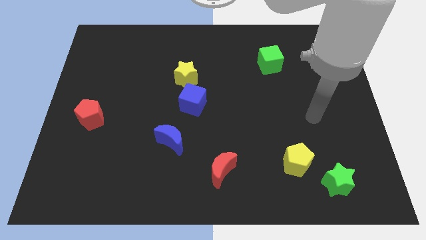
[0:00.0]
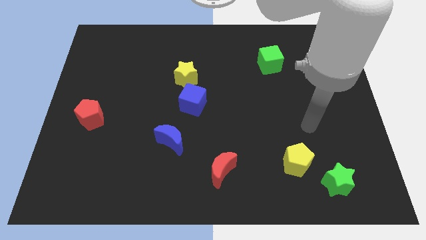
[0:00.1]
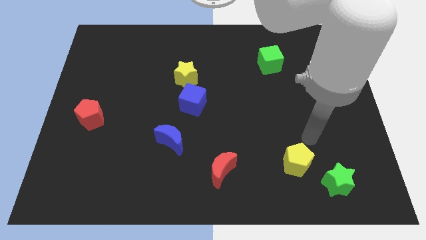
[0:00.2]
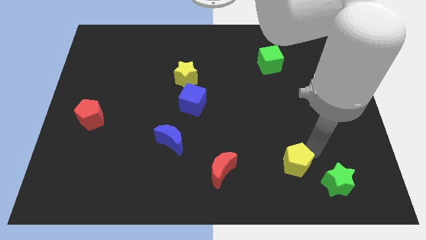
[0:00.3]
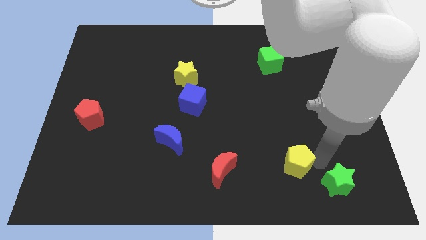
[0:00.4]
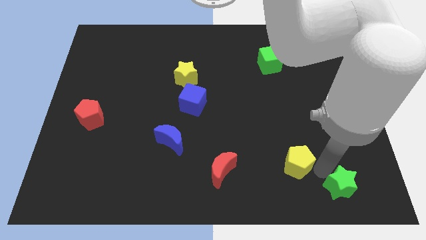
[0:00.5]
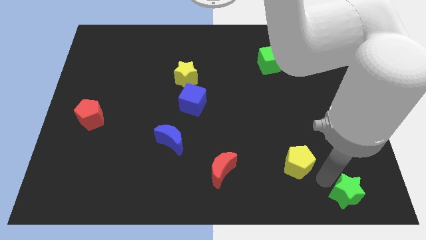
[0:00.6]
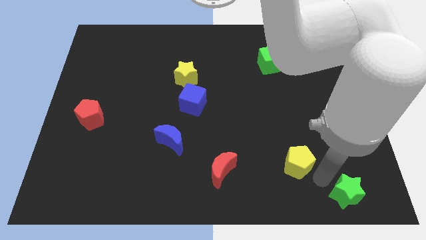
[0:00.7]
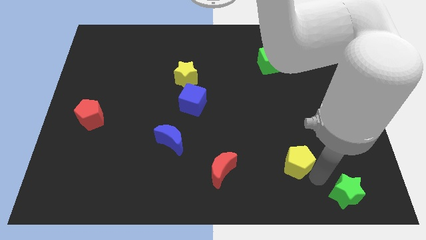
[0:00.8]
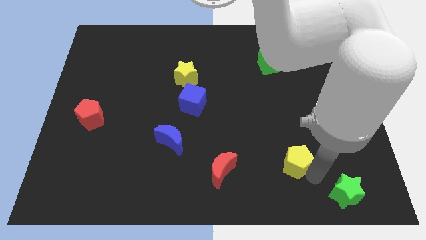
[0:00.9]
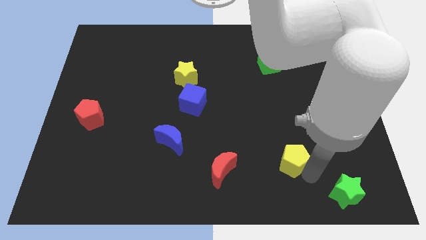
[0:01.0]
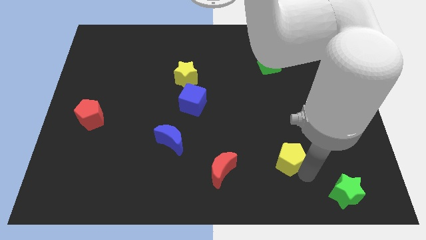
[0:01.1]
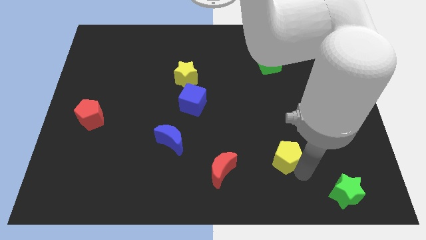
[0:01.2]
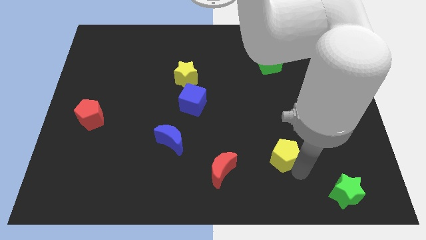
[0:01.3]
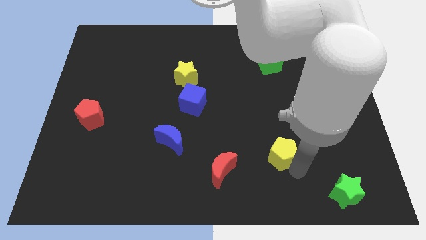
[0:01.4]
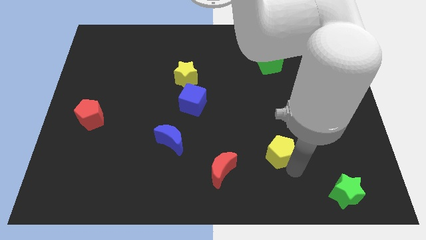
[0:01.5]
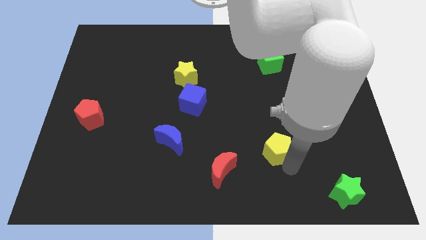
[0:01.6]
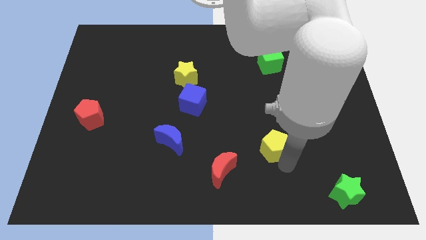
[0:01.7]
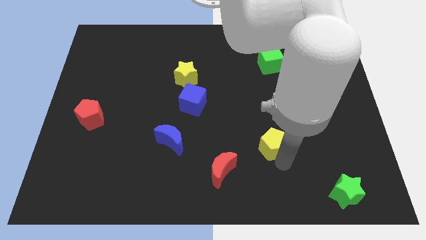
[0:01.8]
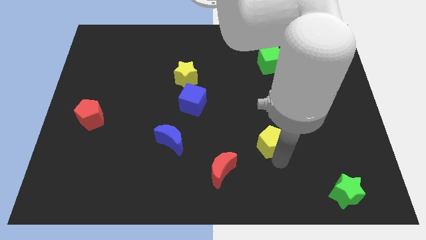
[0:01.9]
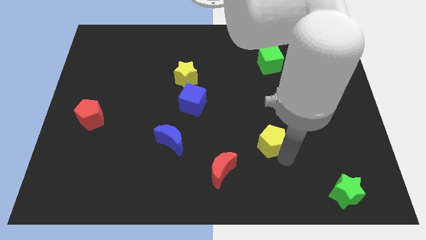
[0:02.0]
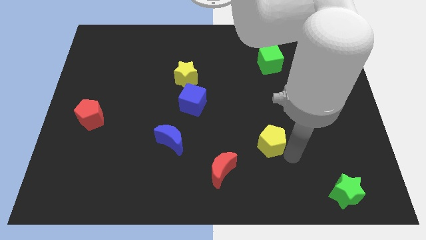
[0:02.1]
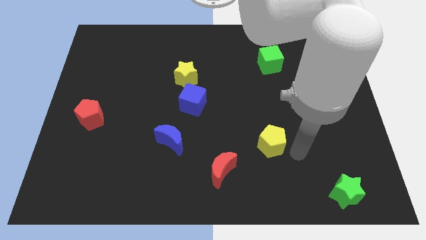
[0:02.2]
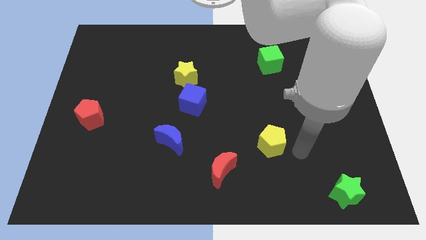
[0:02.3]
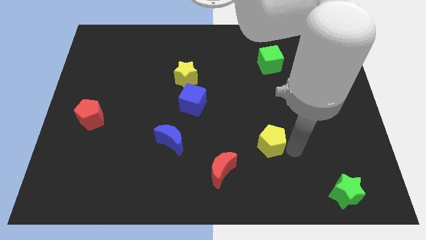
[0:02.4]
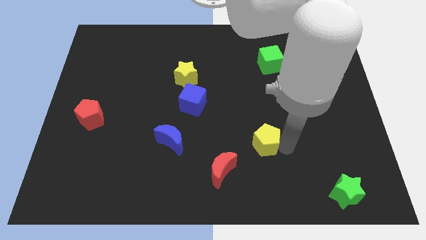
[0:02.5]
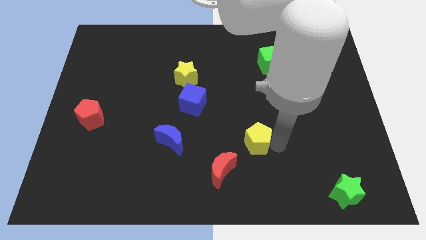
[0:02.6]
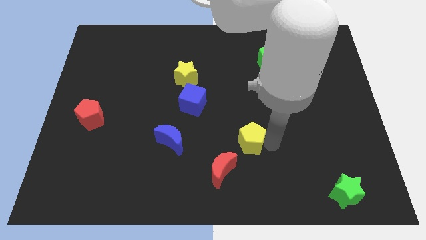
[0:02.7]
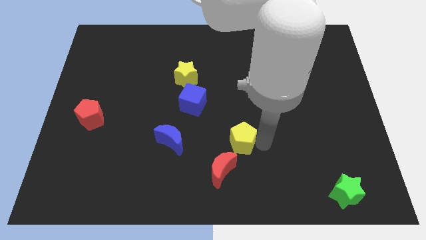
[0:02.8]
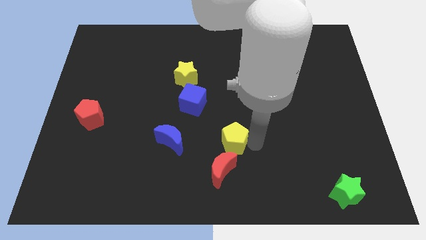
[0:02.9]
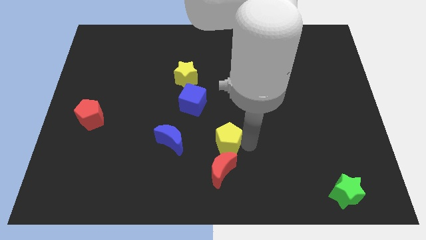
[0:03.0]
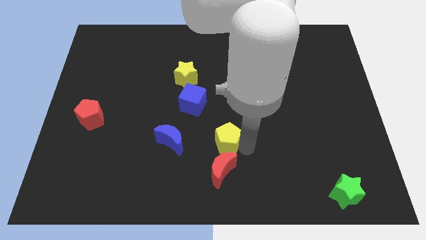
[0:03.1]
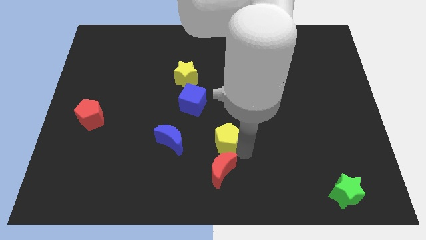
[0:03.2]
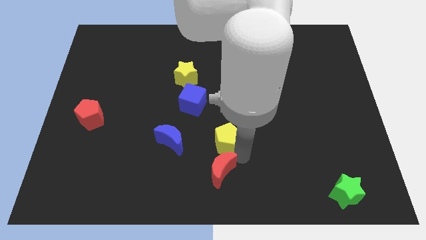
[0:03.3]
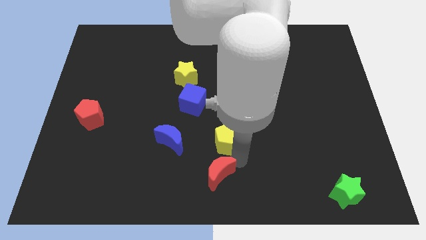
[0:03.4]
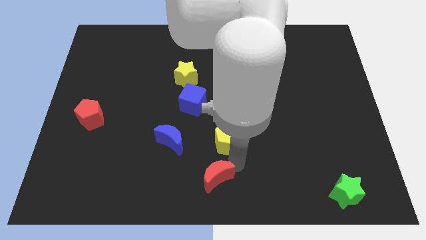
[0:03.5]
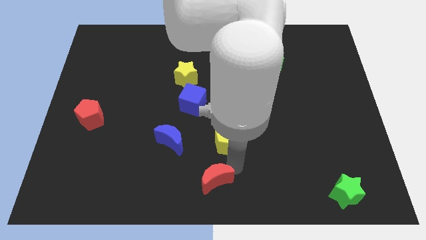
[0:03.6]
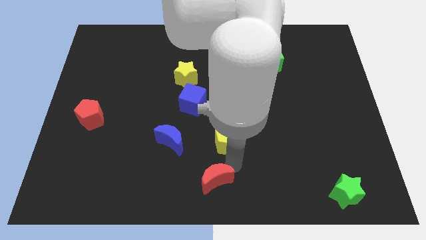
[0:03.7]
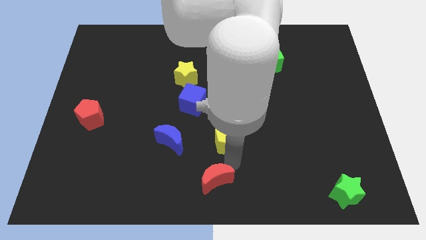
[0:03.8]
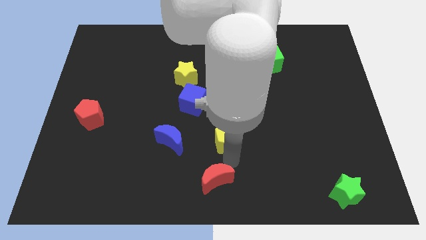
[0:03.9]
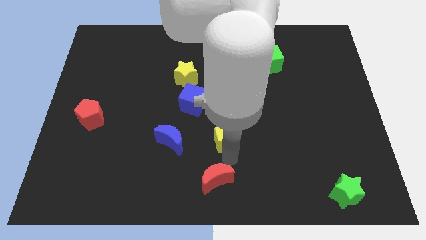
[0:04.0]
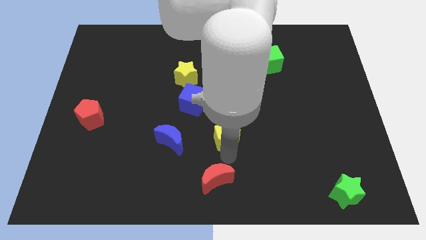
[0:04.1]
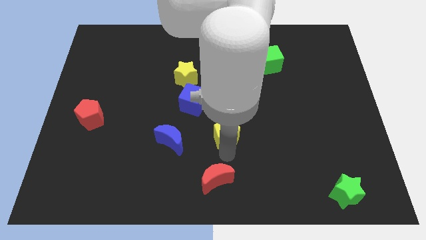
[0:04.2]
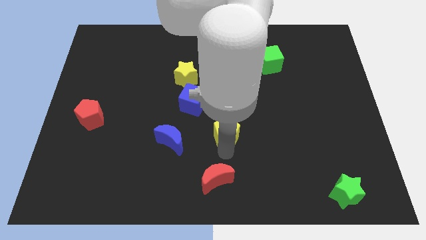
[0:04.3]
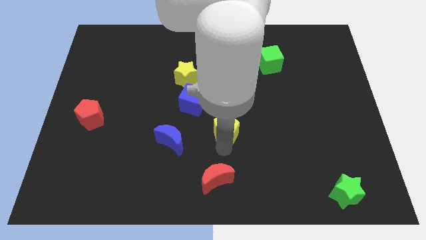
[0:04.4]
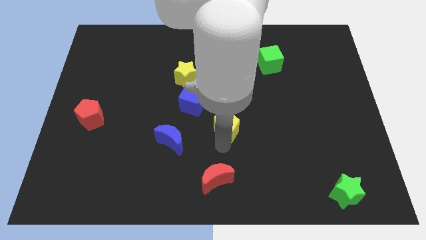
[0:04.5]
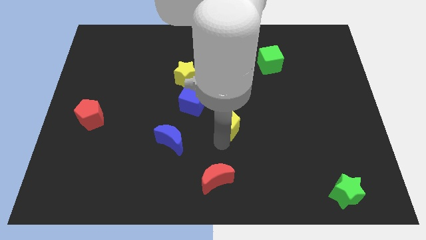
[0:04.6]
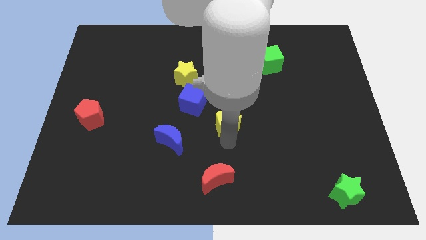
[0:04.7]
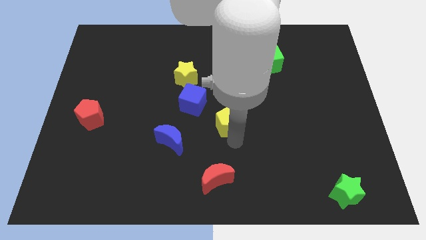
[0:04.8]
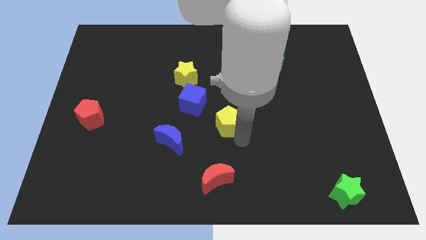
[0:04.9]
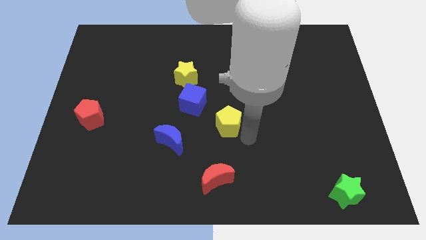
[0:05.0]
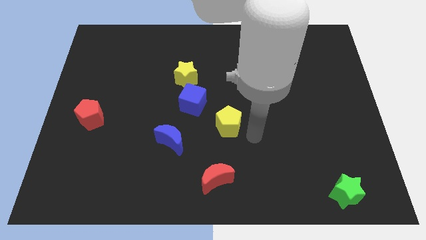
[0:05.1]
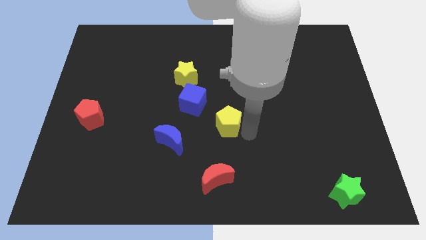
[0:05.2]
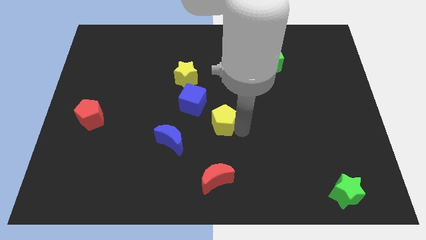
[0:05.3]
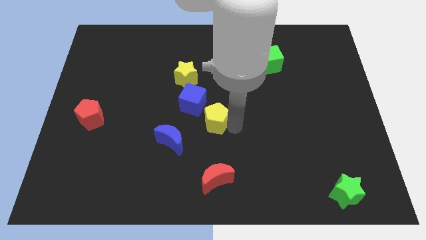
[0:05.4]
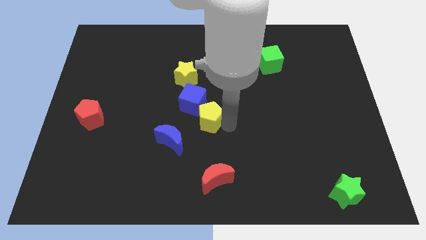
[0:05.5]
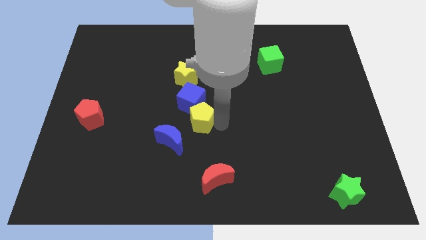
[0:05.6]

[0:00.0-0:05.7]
move the yellow pentagon towards the blue cube

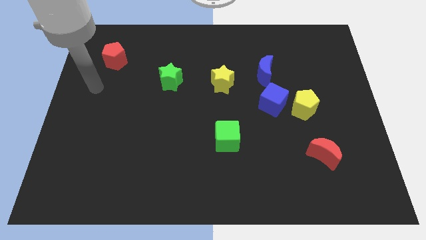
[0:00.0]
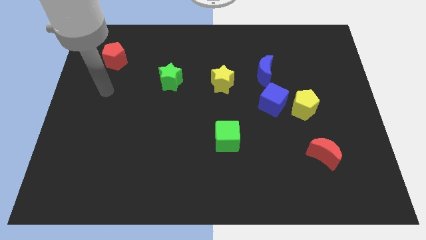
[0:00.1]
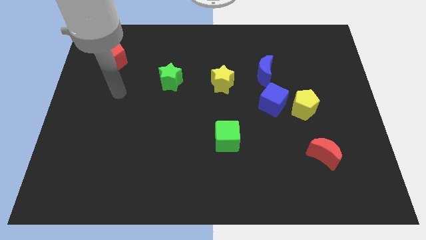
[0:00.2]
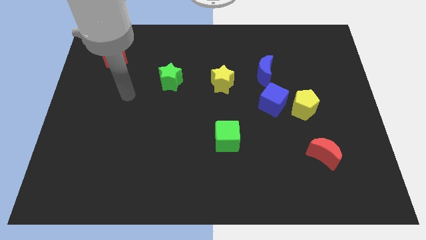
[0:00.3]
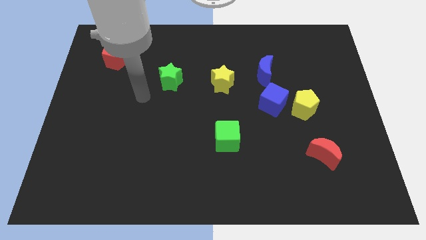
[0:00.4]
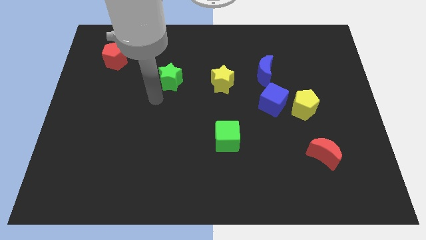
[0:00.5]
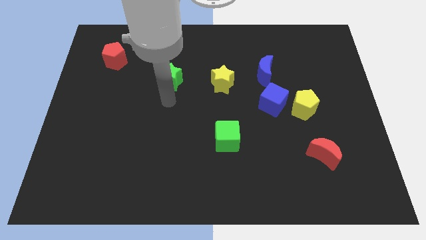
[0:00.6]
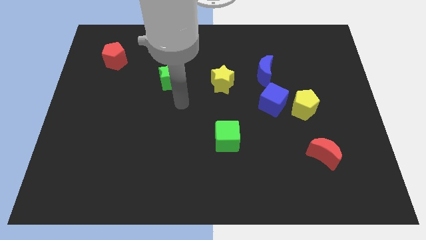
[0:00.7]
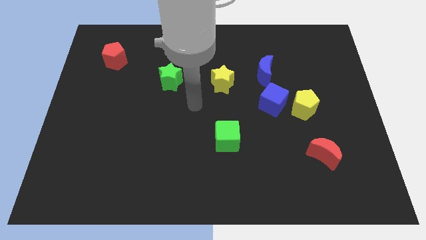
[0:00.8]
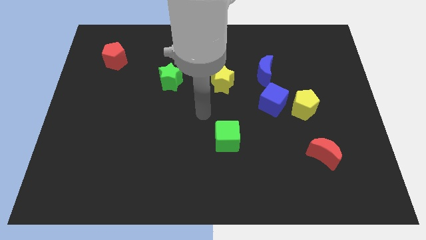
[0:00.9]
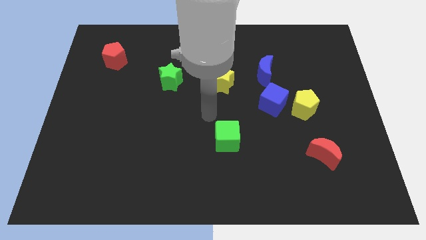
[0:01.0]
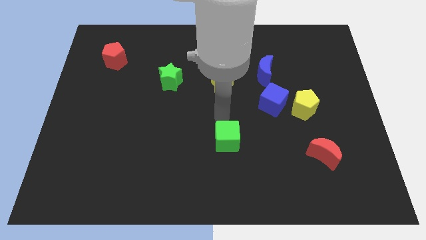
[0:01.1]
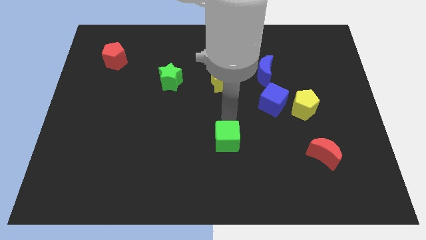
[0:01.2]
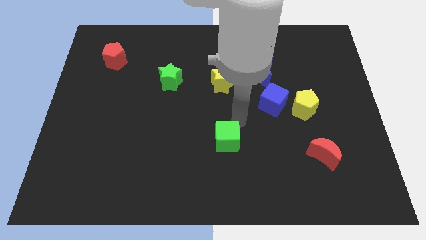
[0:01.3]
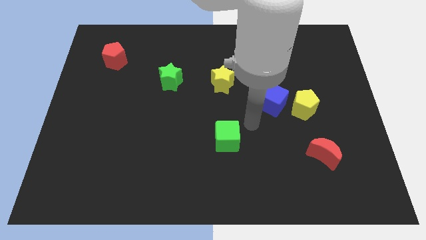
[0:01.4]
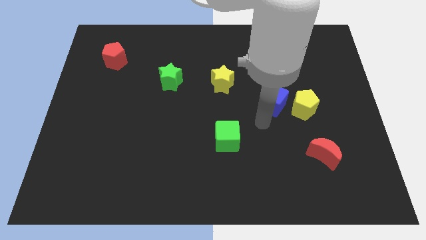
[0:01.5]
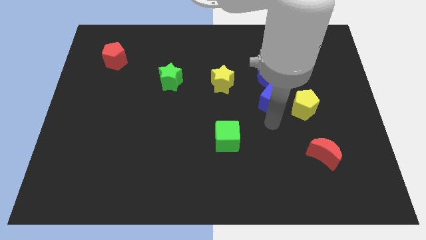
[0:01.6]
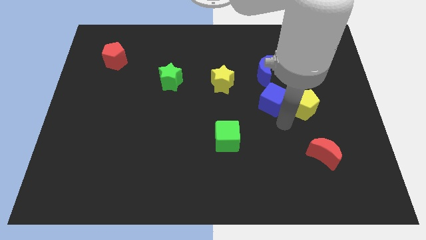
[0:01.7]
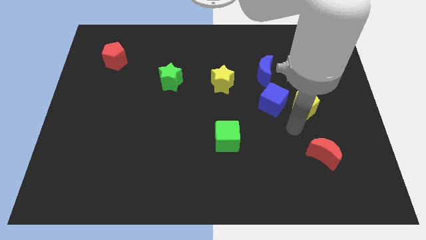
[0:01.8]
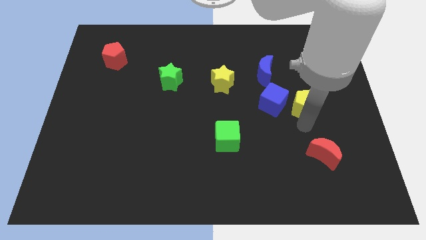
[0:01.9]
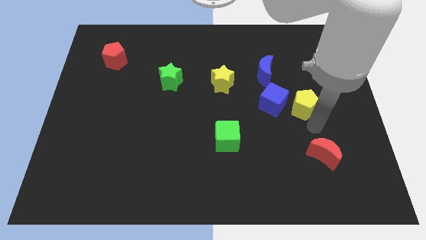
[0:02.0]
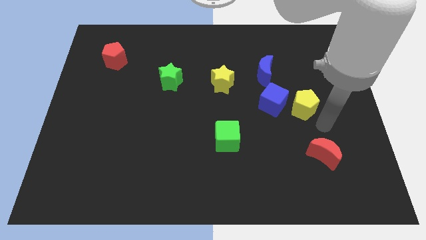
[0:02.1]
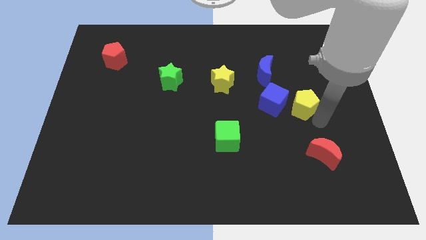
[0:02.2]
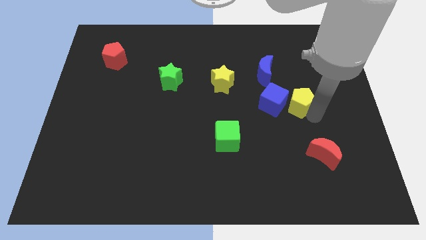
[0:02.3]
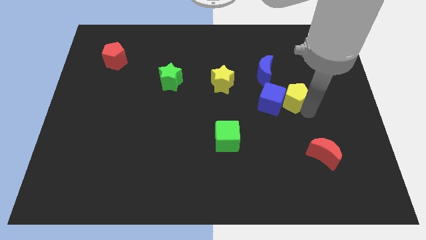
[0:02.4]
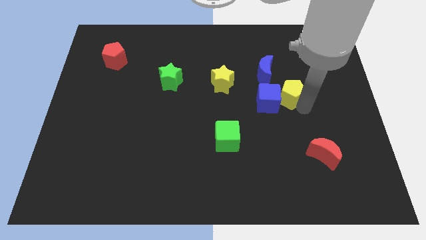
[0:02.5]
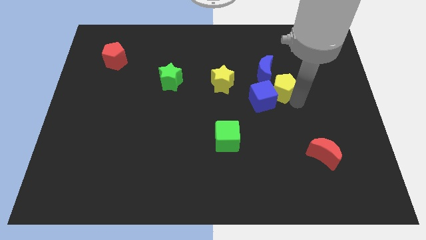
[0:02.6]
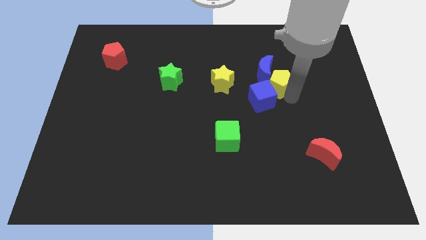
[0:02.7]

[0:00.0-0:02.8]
push the yellow pentagon next to the blue moon
